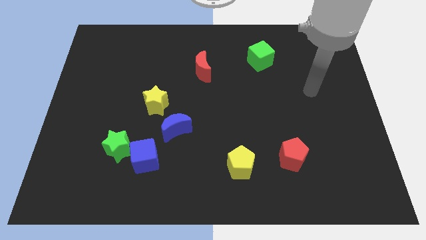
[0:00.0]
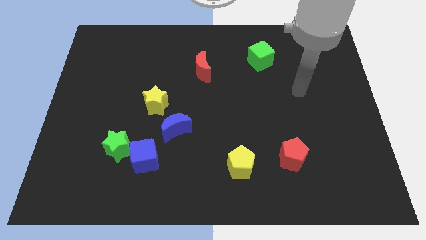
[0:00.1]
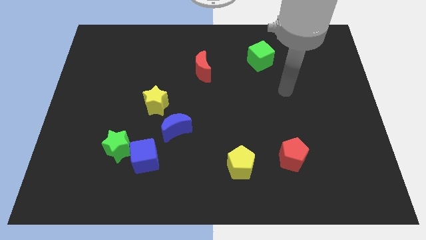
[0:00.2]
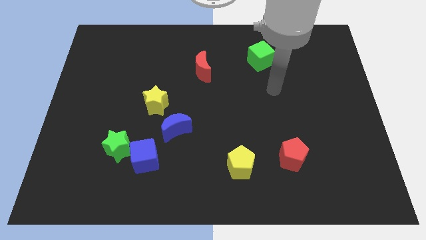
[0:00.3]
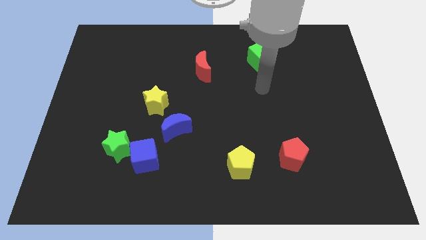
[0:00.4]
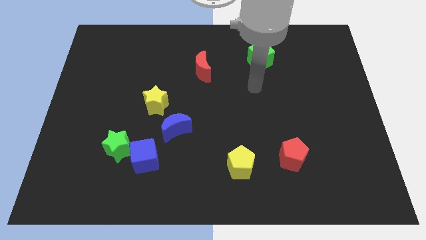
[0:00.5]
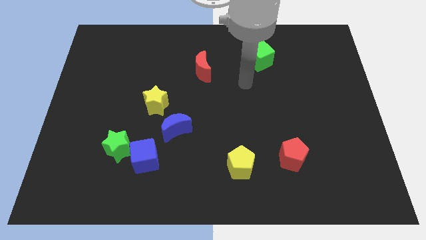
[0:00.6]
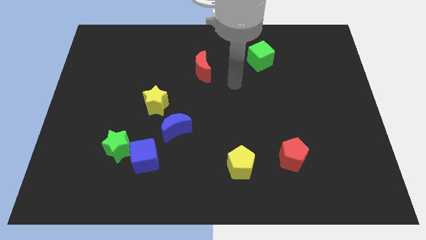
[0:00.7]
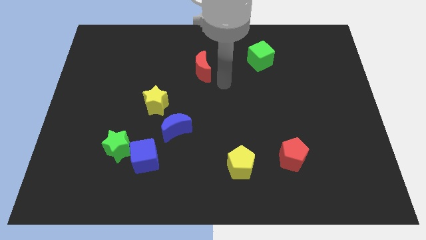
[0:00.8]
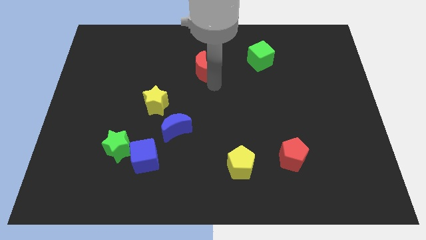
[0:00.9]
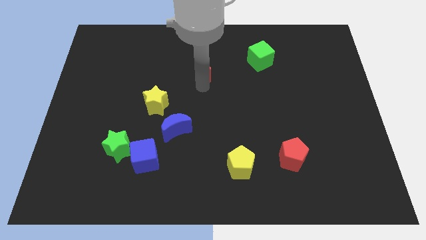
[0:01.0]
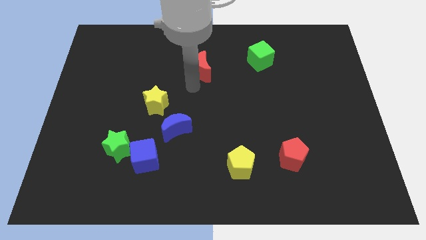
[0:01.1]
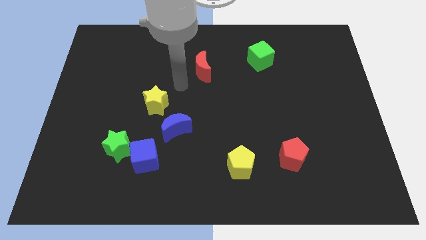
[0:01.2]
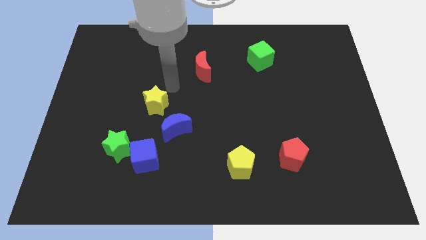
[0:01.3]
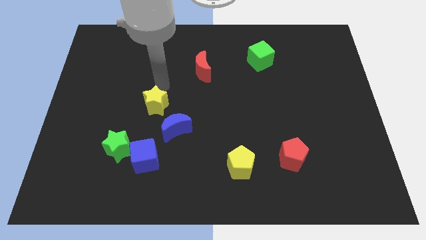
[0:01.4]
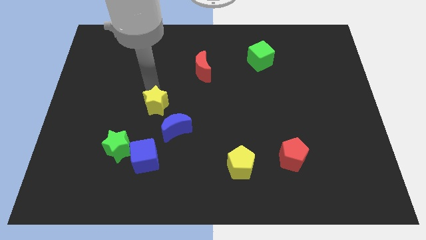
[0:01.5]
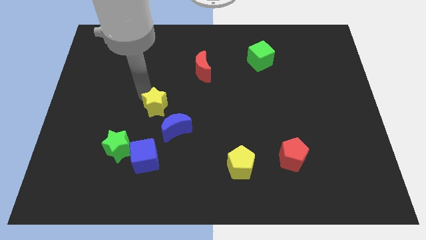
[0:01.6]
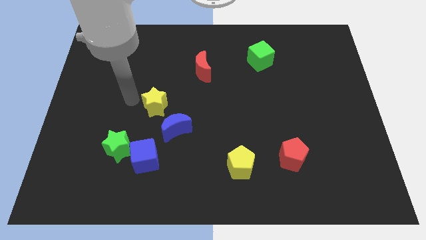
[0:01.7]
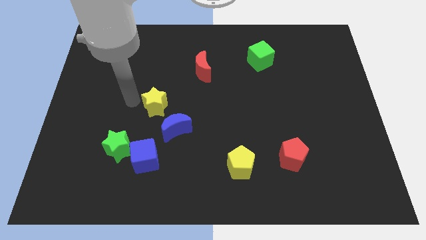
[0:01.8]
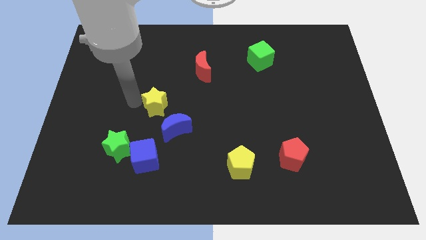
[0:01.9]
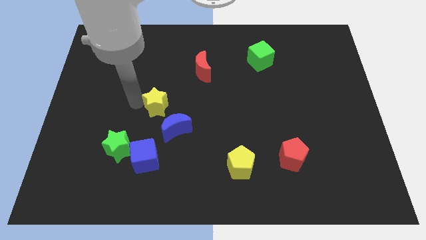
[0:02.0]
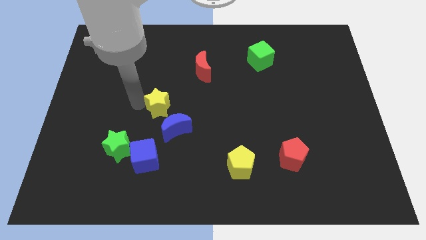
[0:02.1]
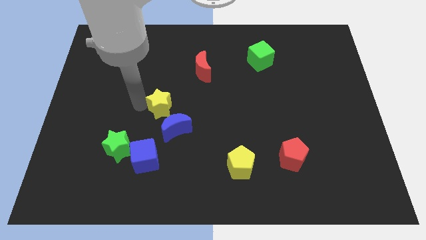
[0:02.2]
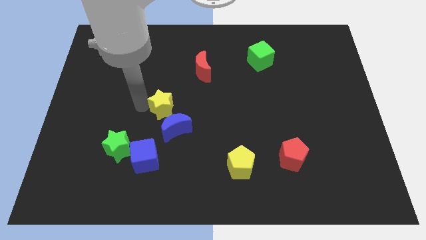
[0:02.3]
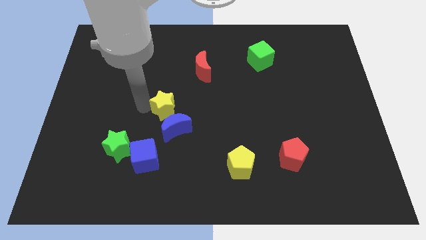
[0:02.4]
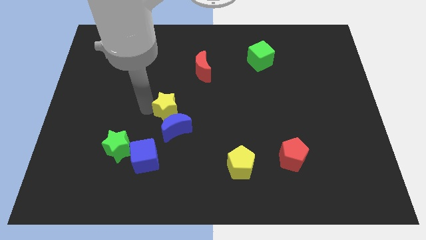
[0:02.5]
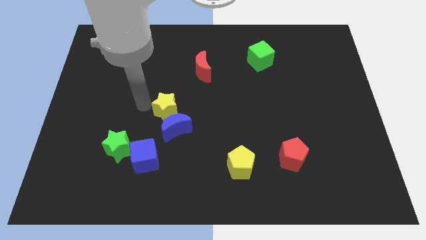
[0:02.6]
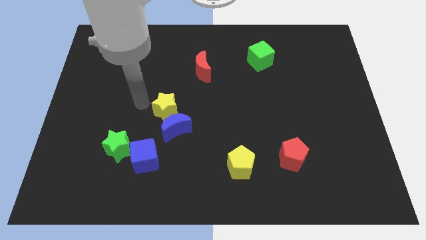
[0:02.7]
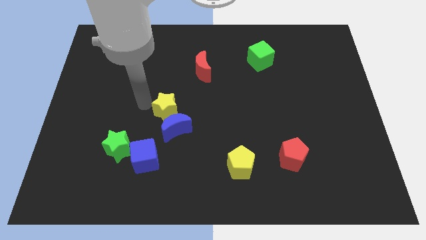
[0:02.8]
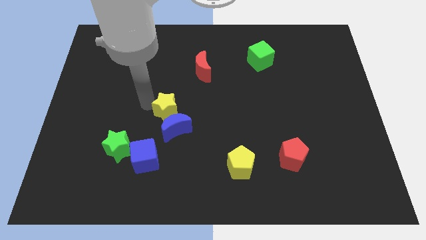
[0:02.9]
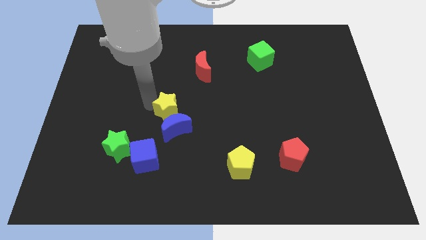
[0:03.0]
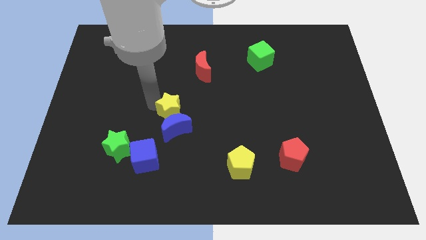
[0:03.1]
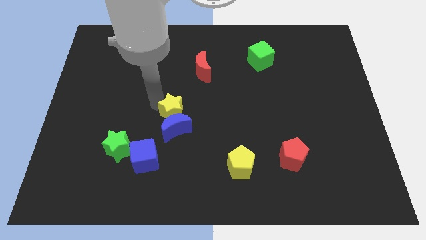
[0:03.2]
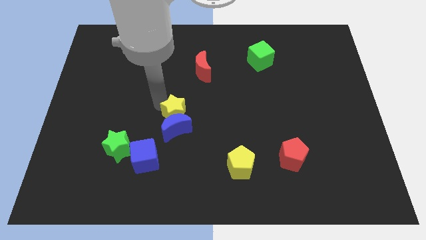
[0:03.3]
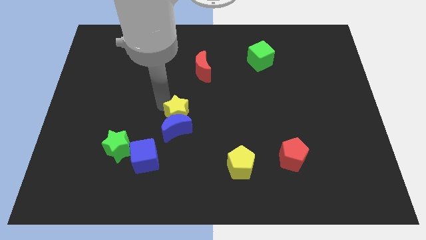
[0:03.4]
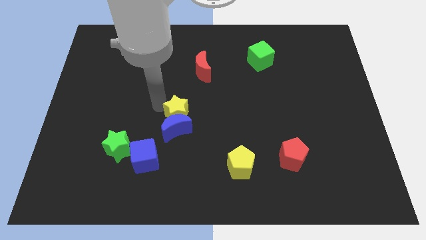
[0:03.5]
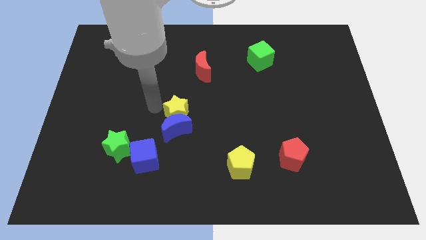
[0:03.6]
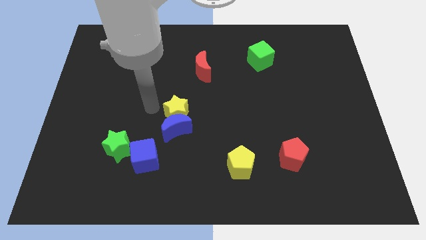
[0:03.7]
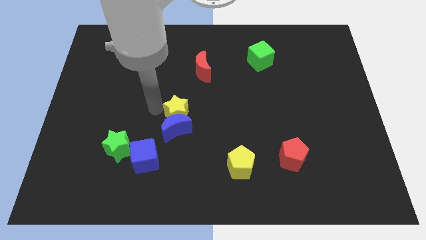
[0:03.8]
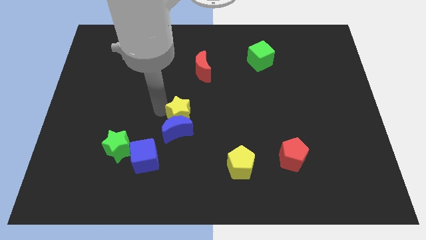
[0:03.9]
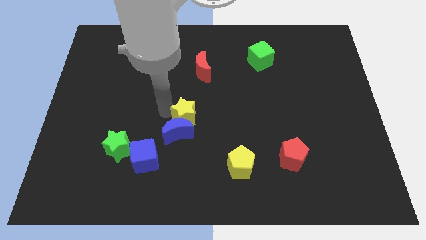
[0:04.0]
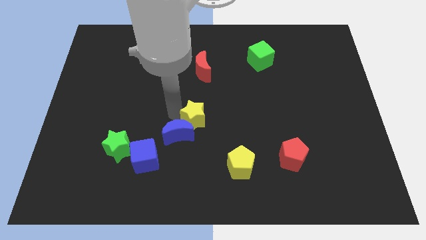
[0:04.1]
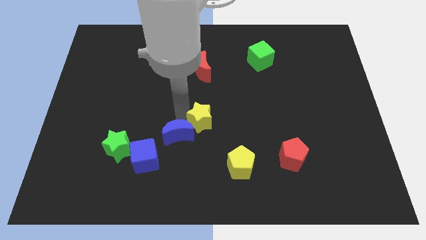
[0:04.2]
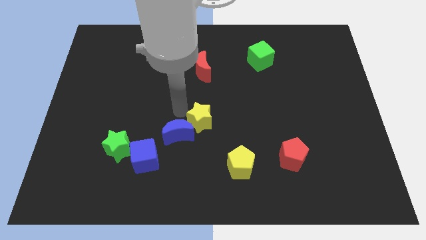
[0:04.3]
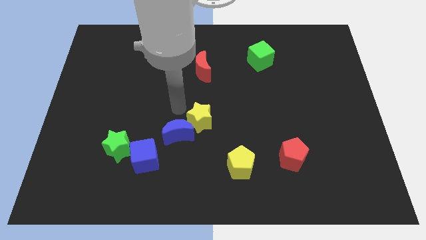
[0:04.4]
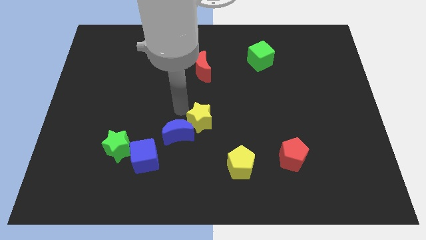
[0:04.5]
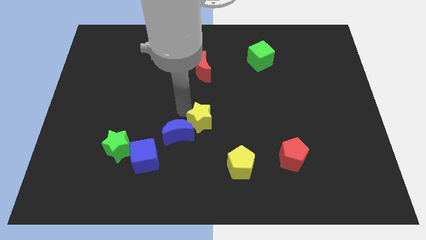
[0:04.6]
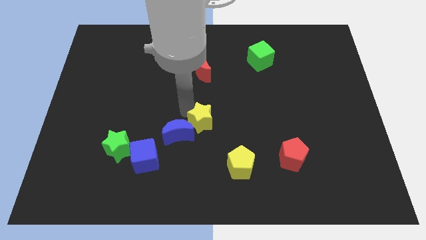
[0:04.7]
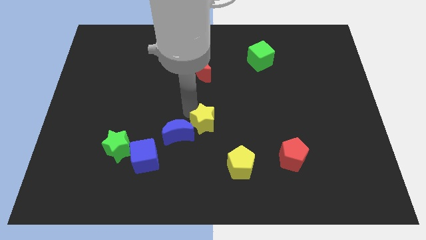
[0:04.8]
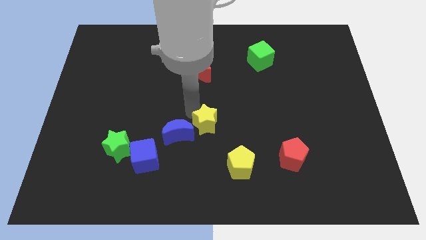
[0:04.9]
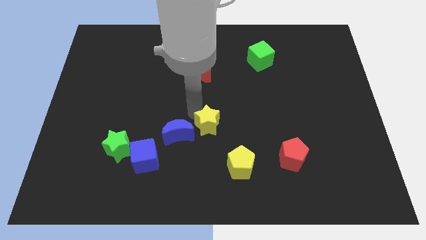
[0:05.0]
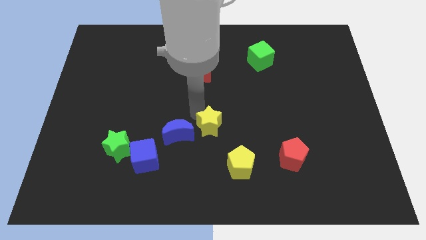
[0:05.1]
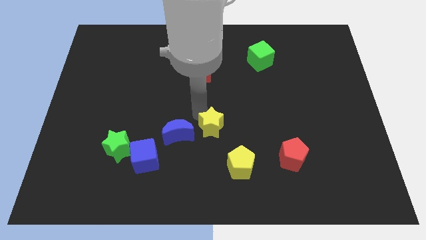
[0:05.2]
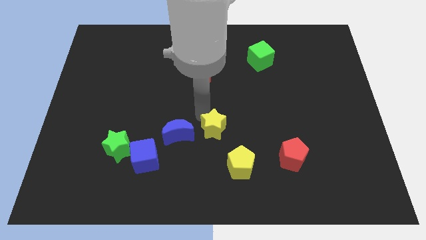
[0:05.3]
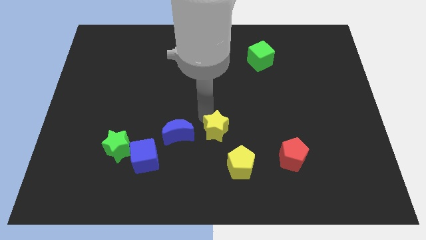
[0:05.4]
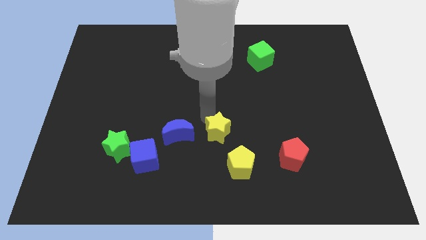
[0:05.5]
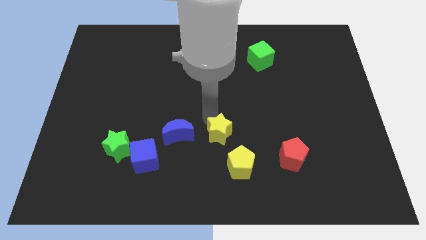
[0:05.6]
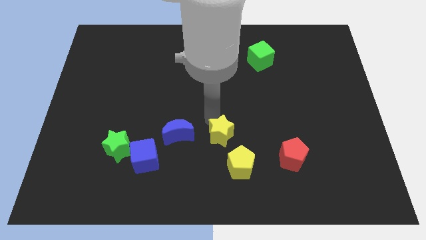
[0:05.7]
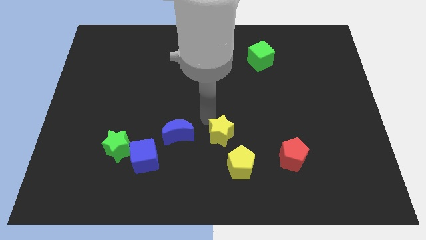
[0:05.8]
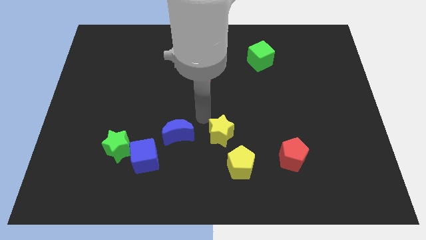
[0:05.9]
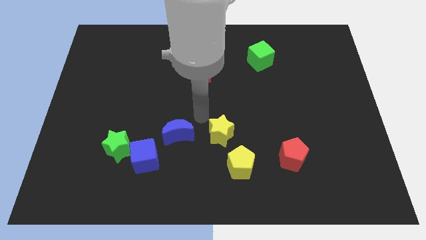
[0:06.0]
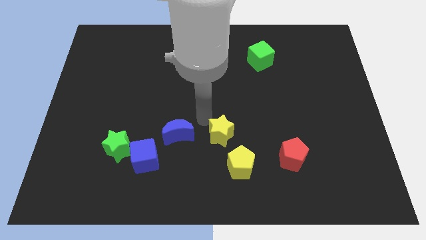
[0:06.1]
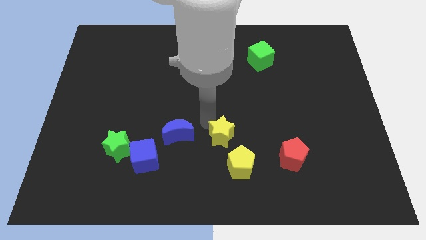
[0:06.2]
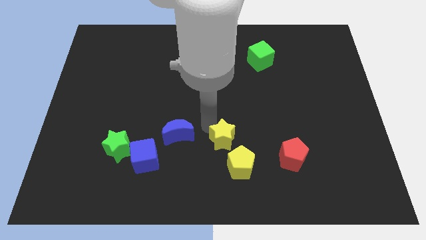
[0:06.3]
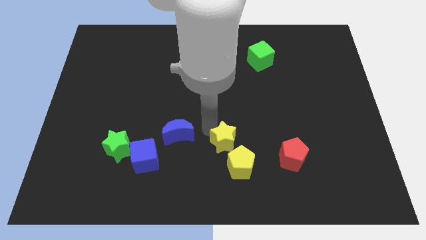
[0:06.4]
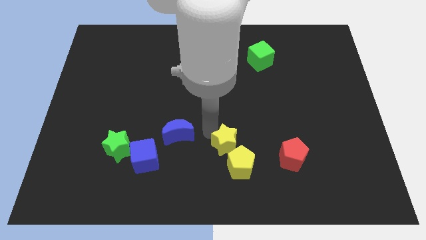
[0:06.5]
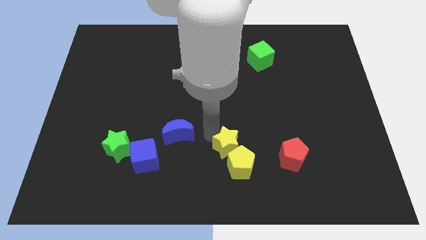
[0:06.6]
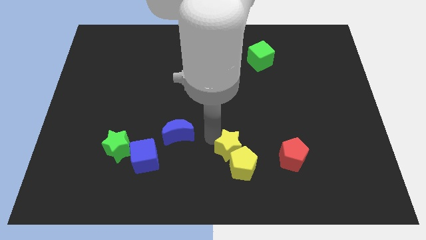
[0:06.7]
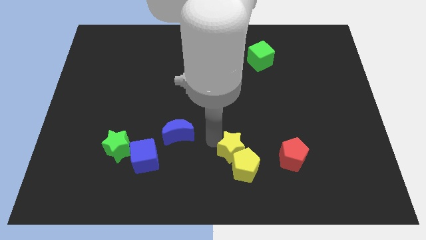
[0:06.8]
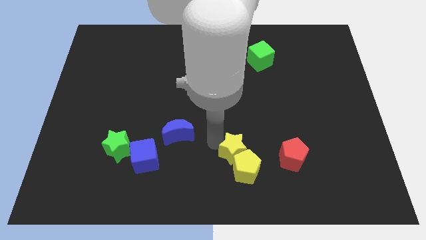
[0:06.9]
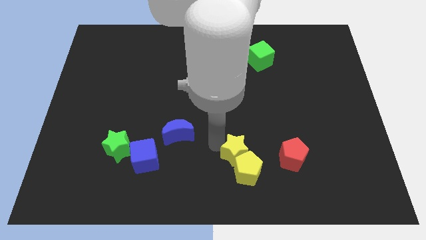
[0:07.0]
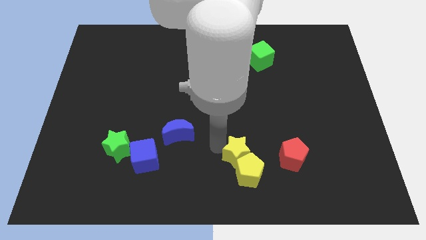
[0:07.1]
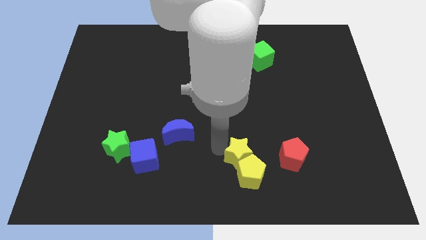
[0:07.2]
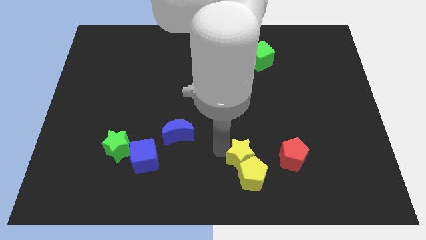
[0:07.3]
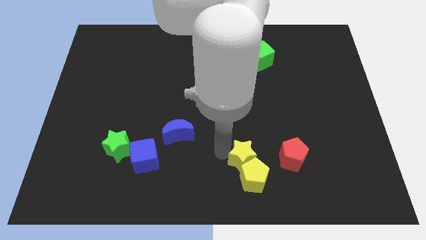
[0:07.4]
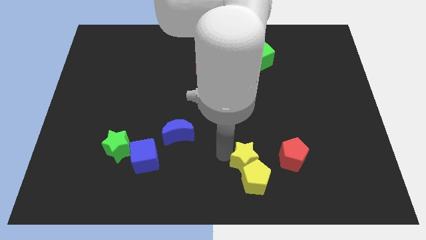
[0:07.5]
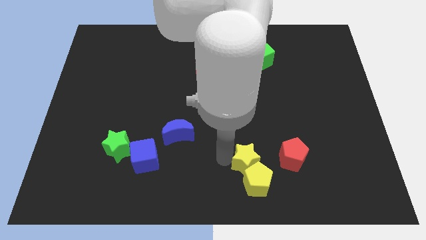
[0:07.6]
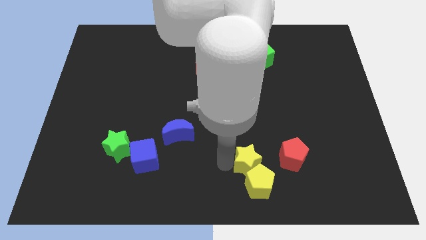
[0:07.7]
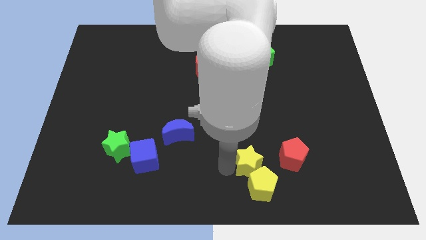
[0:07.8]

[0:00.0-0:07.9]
slide the yellow star diagonally down and to the left of the red pentagon

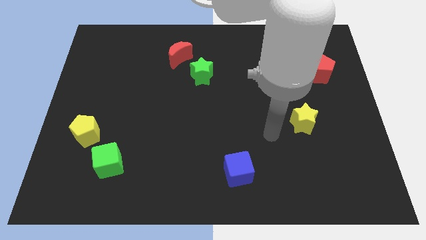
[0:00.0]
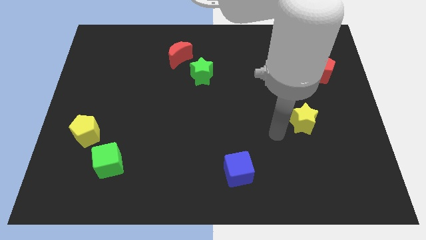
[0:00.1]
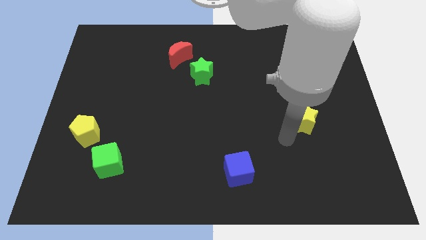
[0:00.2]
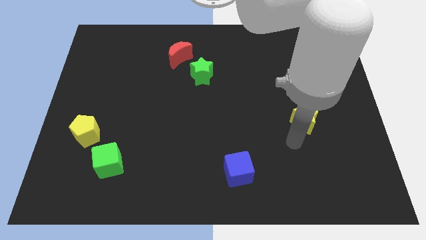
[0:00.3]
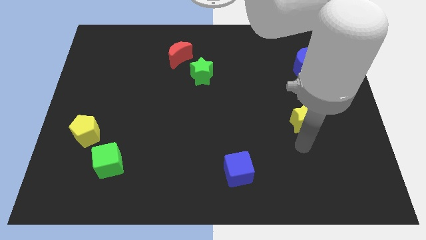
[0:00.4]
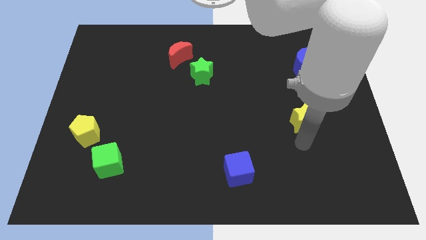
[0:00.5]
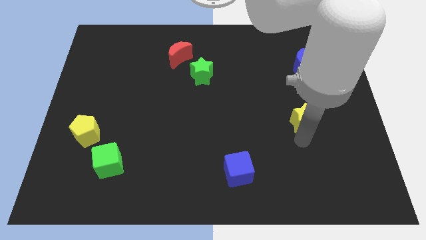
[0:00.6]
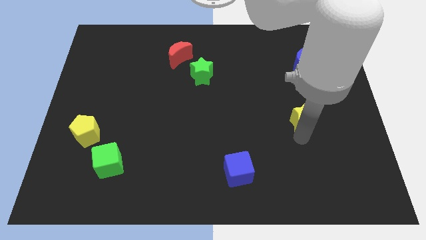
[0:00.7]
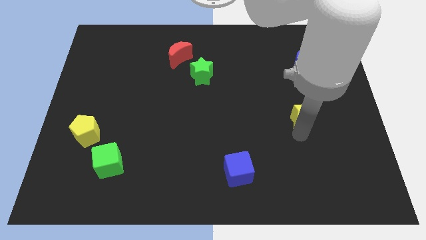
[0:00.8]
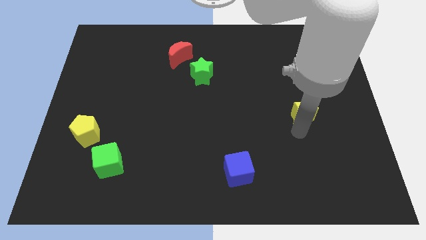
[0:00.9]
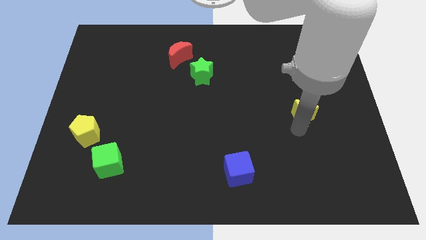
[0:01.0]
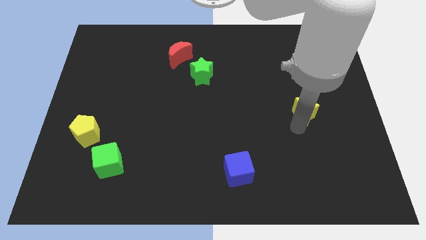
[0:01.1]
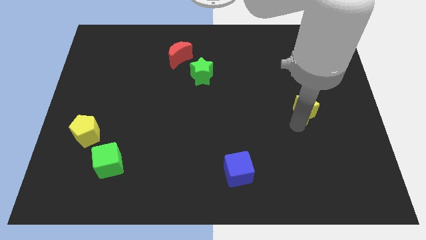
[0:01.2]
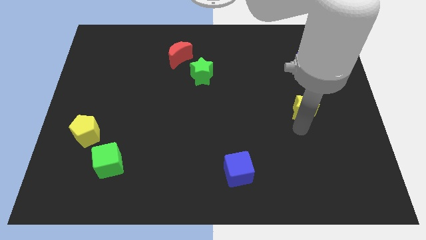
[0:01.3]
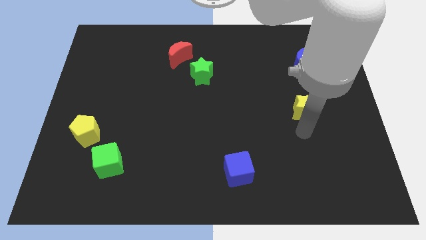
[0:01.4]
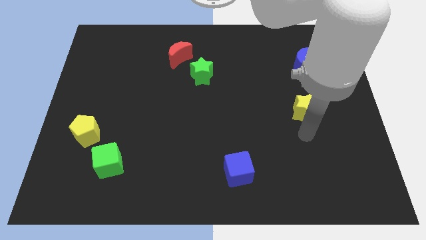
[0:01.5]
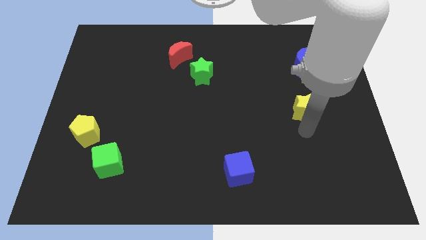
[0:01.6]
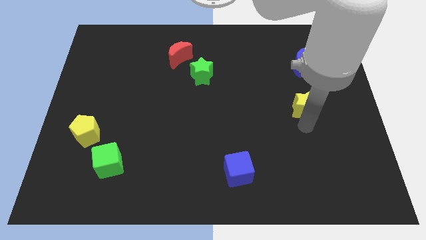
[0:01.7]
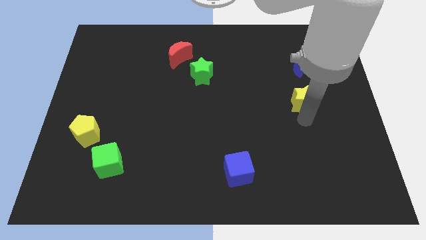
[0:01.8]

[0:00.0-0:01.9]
push the yellow star diagonally down and to the left of the red pentagon
